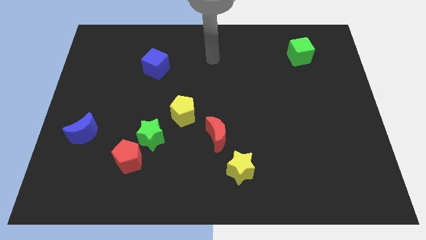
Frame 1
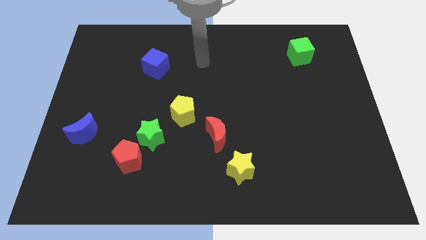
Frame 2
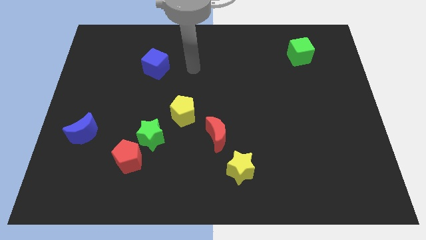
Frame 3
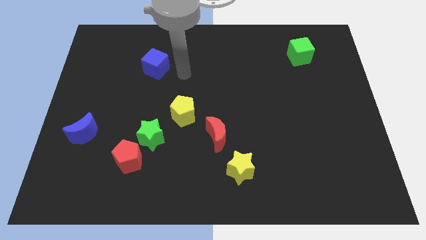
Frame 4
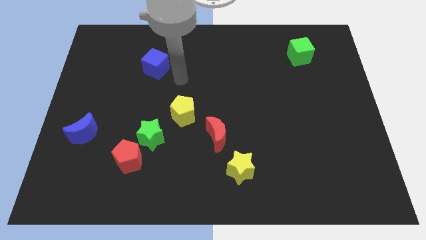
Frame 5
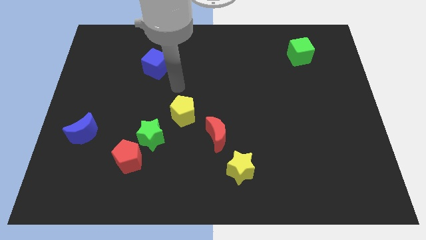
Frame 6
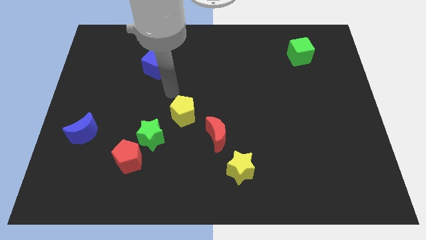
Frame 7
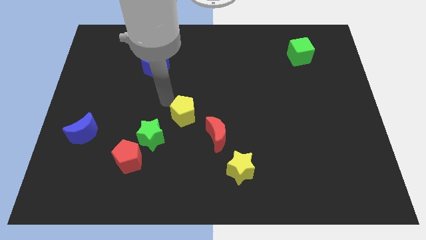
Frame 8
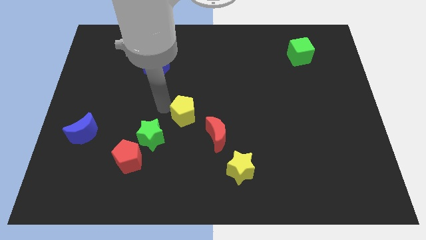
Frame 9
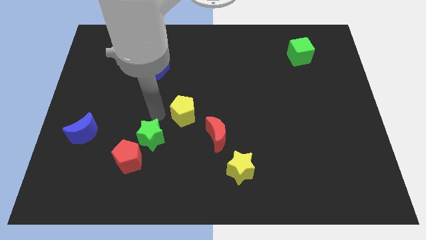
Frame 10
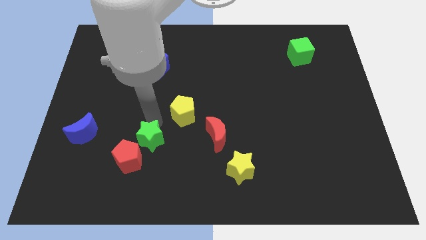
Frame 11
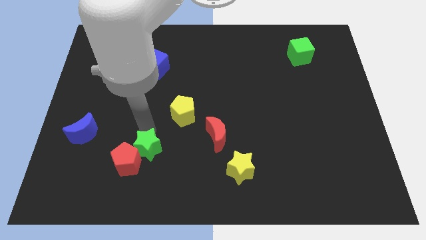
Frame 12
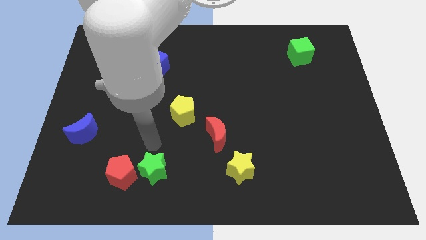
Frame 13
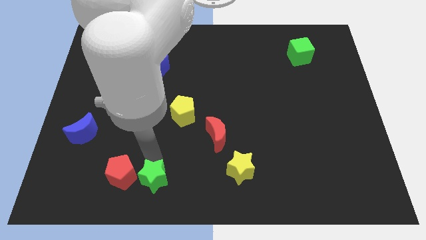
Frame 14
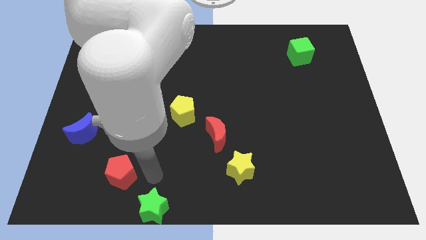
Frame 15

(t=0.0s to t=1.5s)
pull the red pentagon apart from the green star

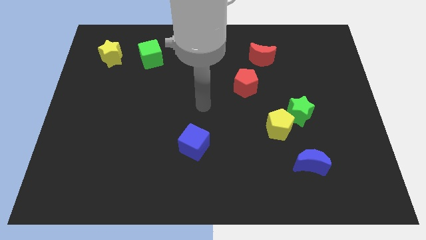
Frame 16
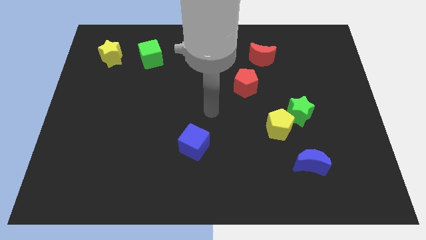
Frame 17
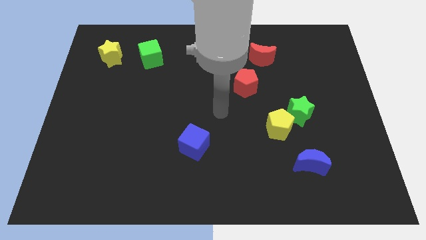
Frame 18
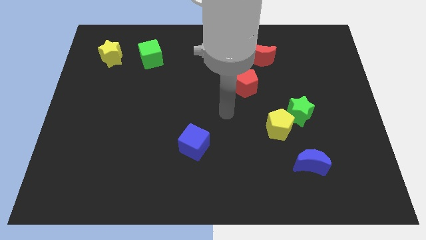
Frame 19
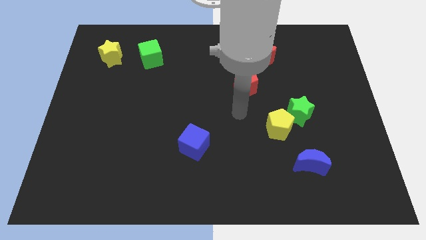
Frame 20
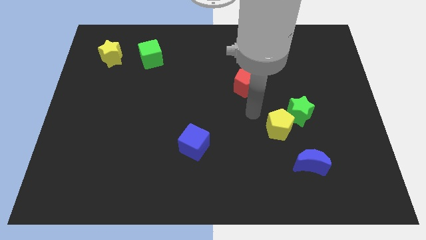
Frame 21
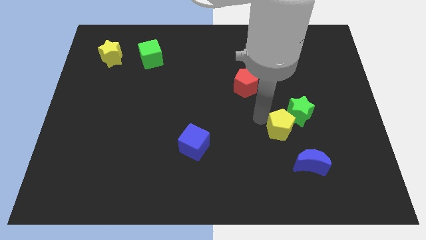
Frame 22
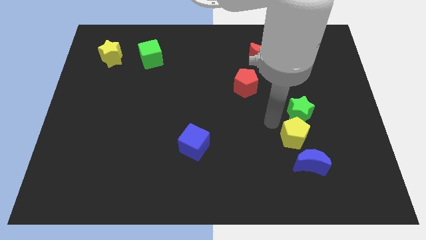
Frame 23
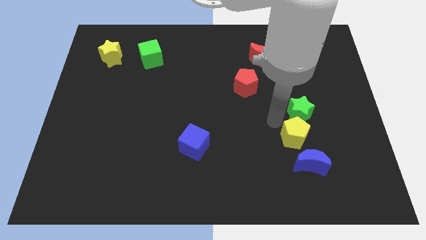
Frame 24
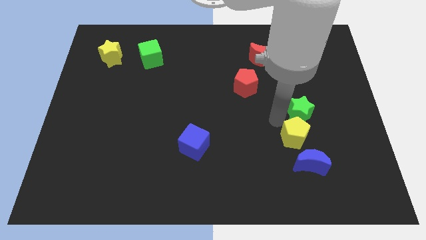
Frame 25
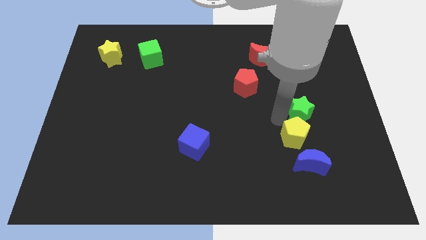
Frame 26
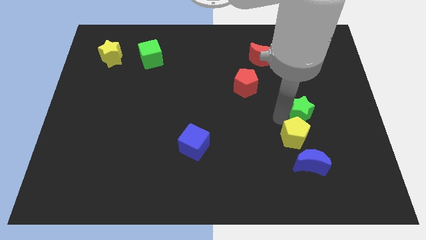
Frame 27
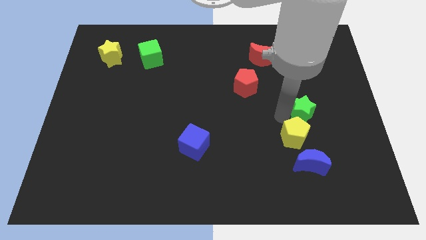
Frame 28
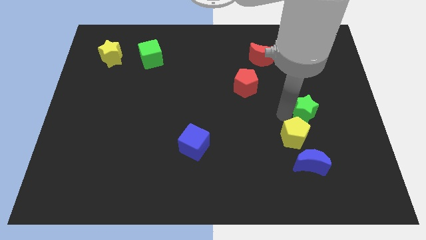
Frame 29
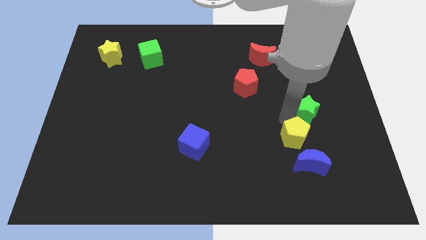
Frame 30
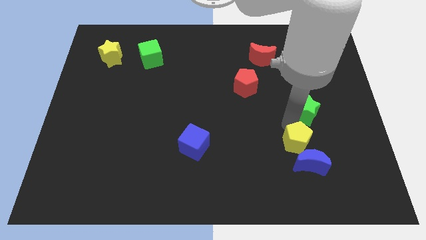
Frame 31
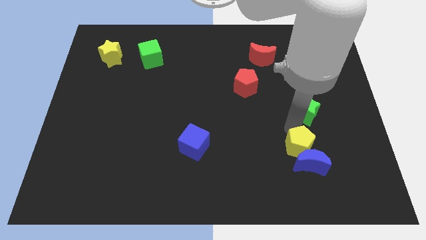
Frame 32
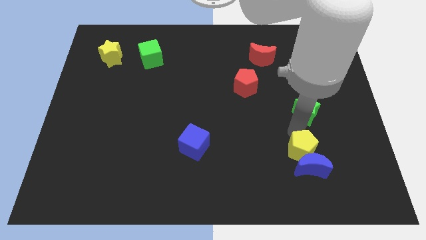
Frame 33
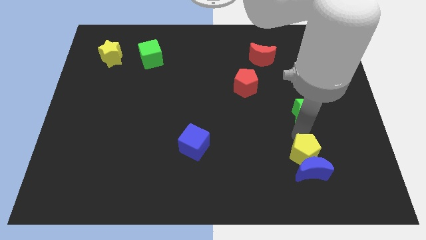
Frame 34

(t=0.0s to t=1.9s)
pull the green star apart from the yellow pentagon

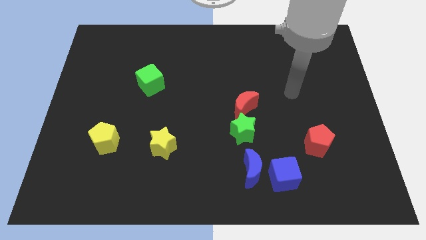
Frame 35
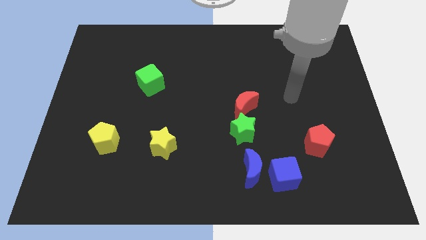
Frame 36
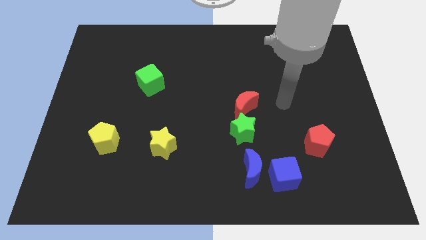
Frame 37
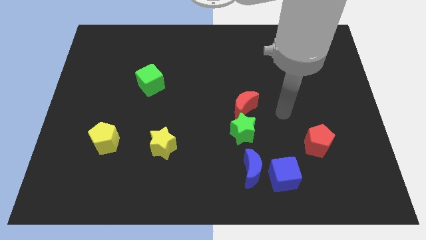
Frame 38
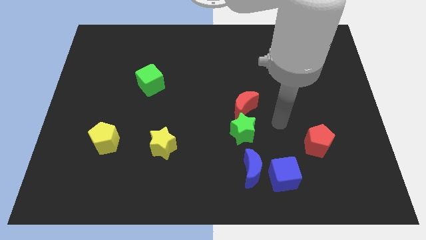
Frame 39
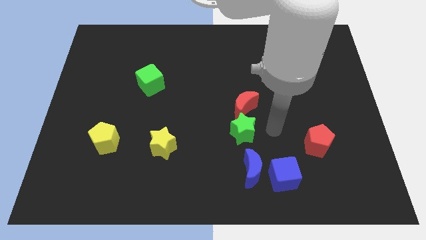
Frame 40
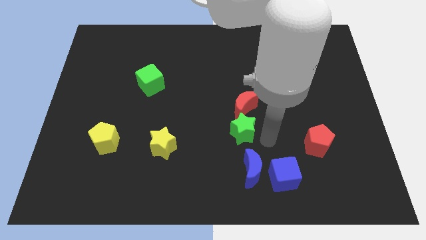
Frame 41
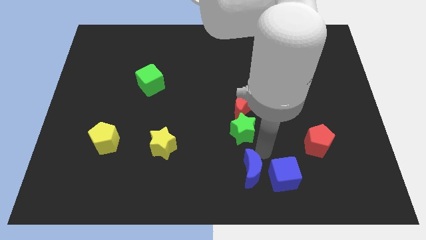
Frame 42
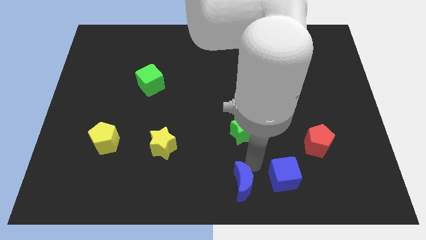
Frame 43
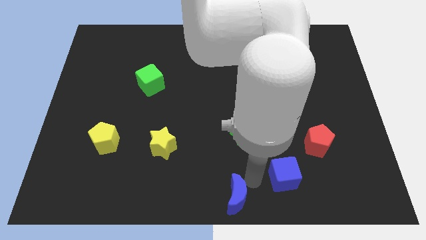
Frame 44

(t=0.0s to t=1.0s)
pull the blue cube apart from the blue moon

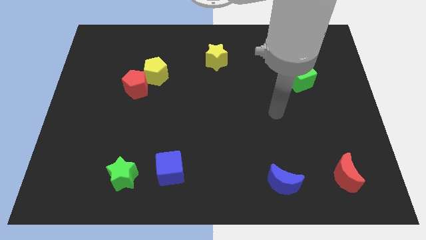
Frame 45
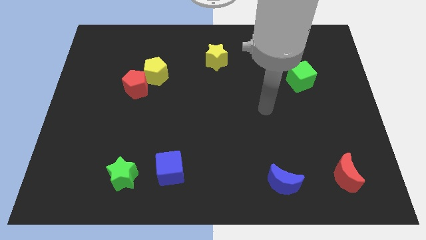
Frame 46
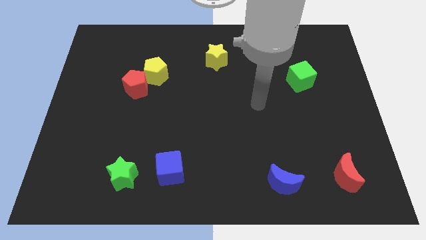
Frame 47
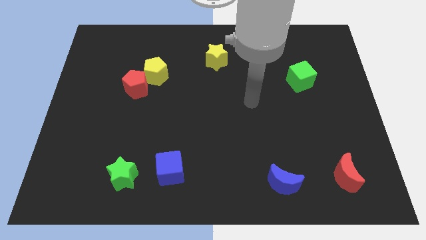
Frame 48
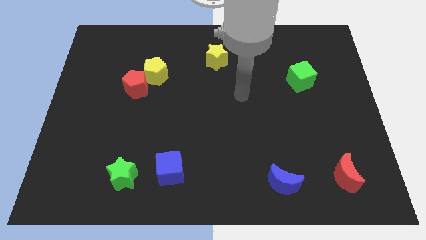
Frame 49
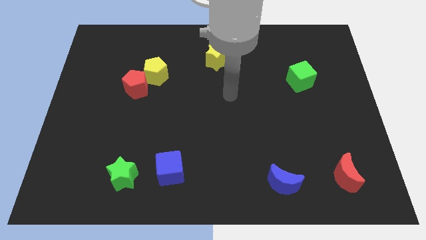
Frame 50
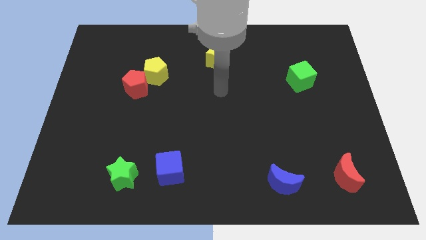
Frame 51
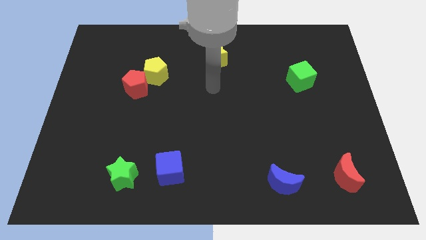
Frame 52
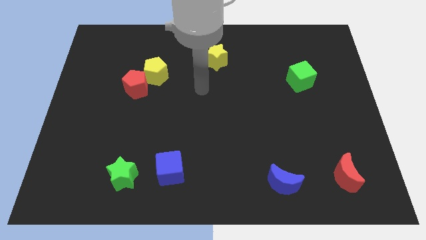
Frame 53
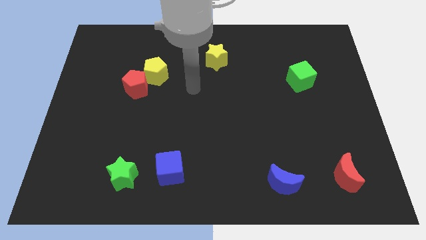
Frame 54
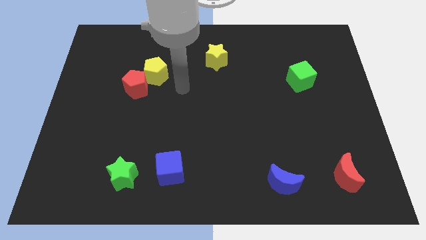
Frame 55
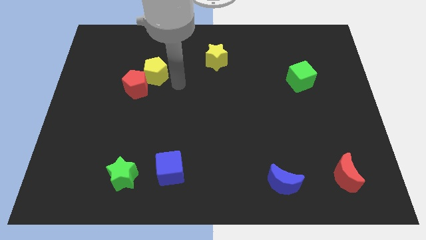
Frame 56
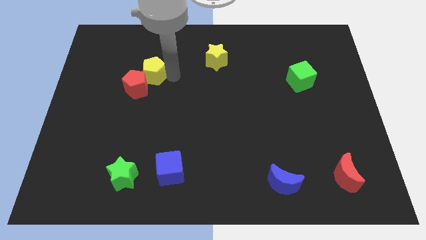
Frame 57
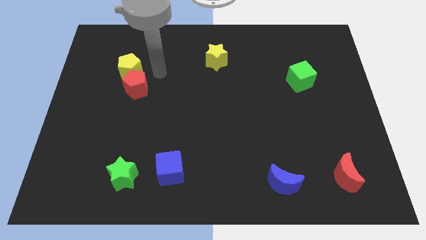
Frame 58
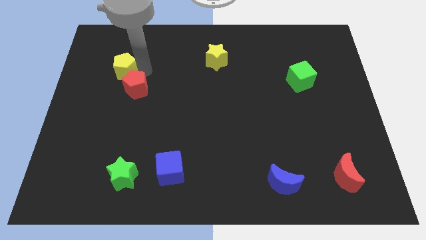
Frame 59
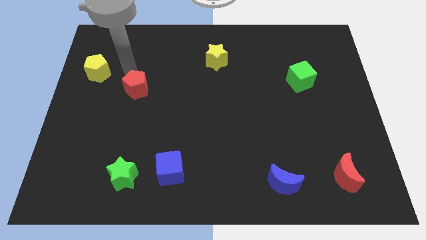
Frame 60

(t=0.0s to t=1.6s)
move the red pentagon away from the yellow pentagon

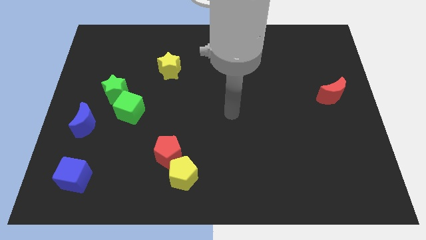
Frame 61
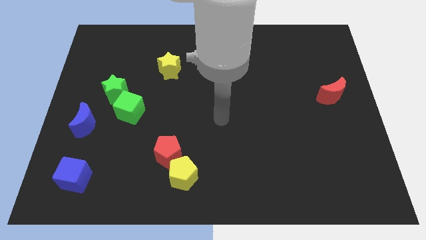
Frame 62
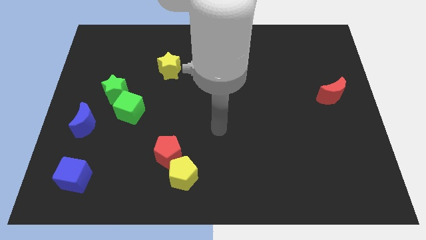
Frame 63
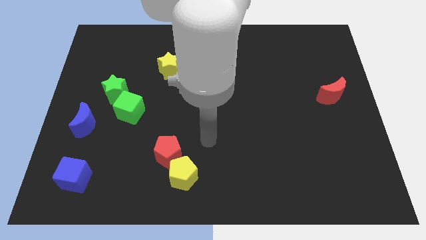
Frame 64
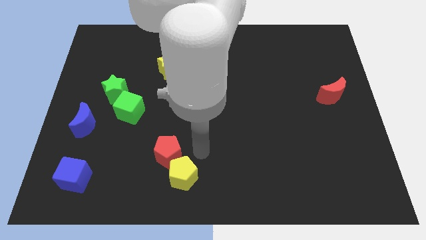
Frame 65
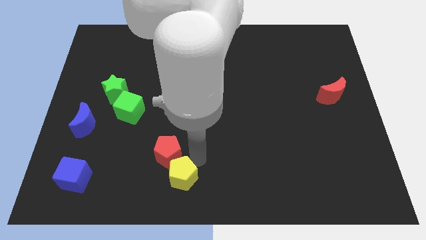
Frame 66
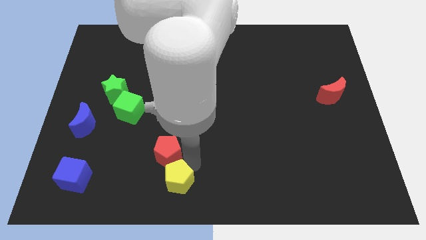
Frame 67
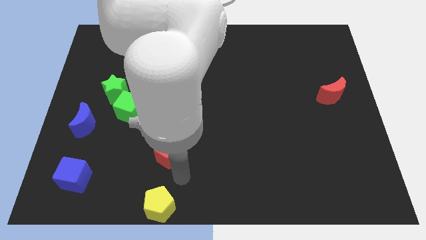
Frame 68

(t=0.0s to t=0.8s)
pull the red pentagon apart from the yellow pentagon

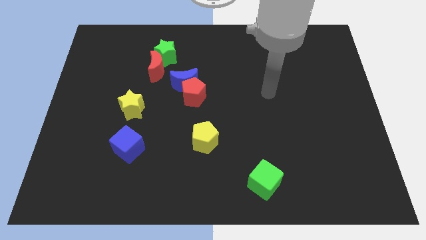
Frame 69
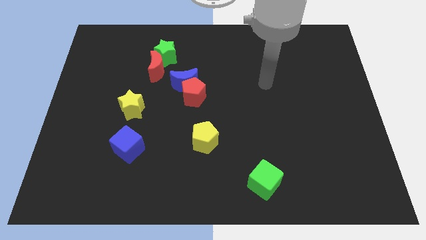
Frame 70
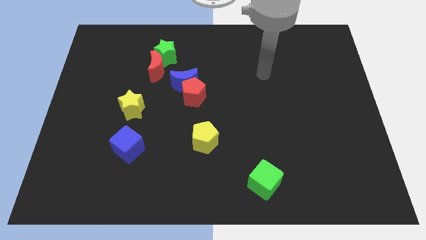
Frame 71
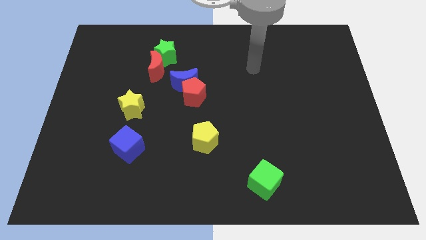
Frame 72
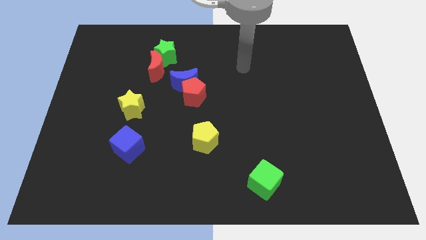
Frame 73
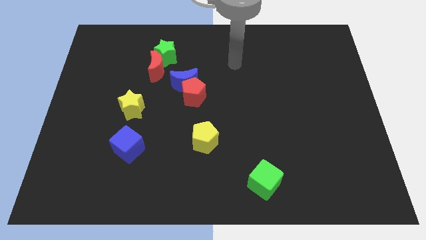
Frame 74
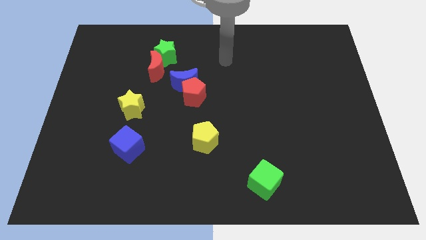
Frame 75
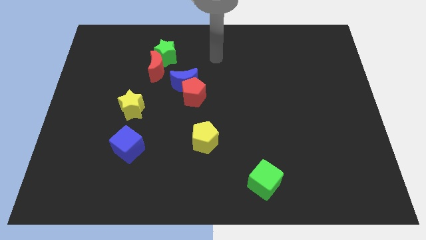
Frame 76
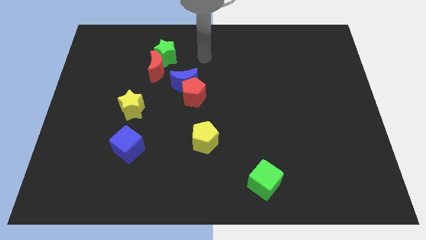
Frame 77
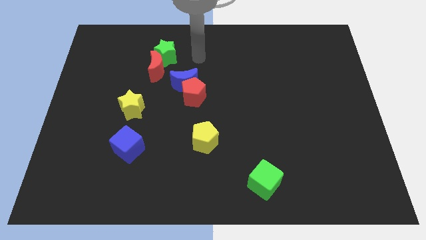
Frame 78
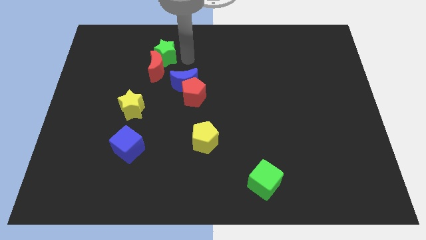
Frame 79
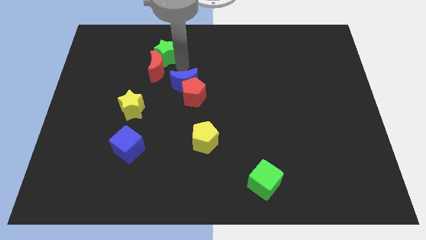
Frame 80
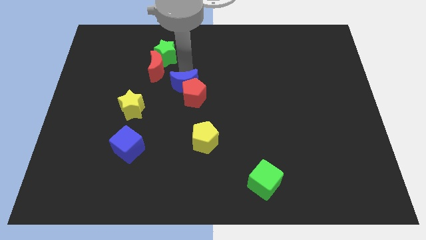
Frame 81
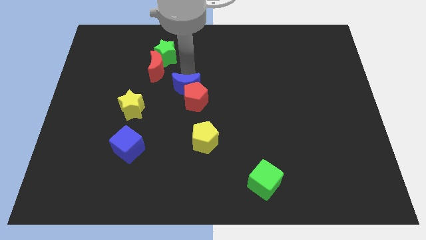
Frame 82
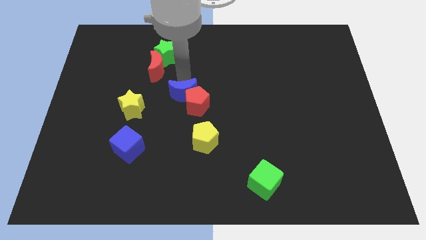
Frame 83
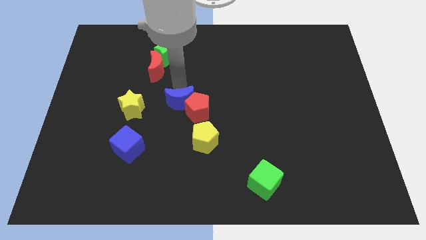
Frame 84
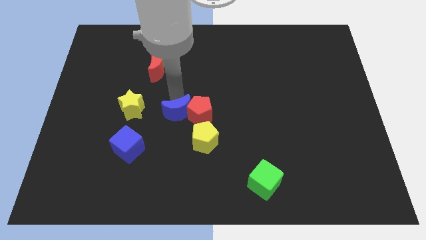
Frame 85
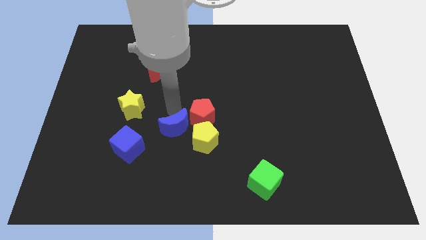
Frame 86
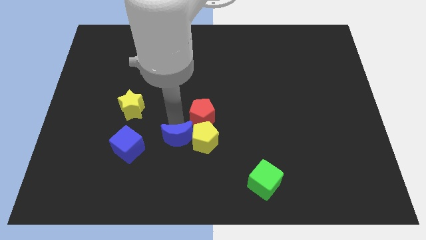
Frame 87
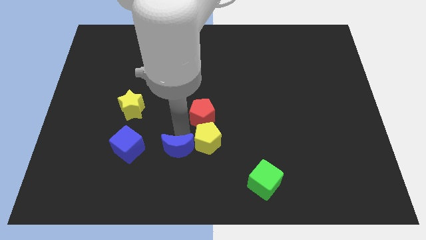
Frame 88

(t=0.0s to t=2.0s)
separate the red pentagon from the blue moon

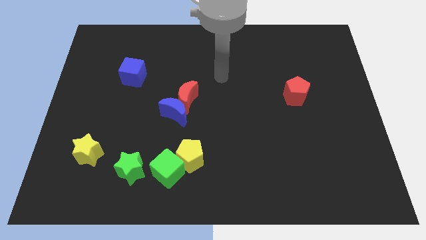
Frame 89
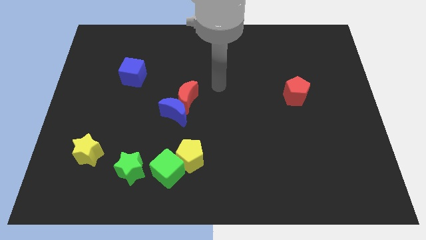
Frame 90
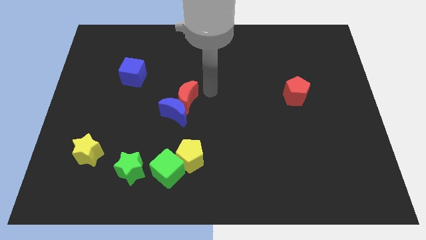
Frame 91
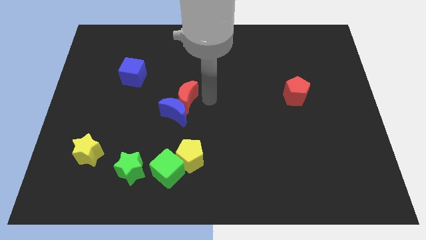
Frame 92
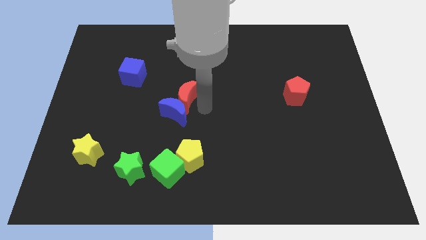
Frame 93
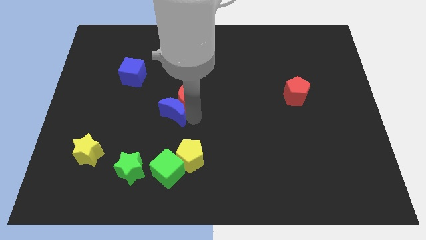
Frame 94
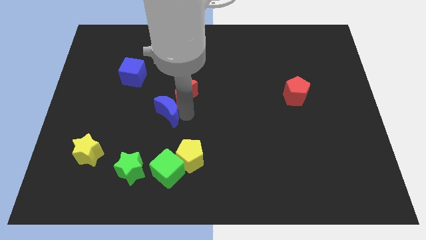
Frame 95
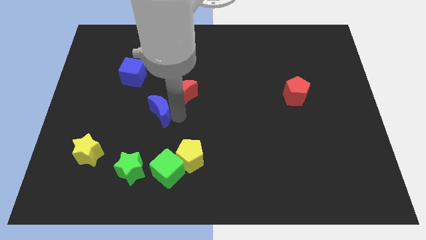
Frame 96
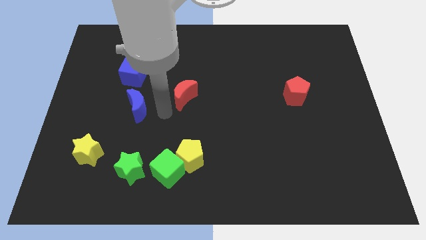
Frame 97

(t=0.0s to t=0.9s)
move the red moon away from the blue moon
